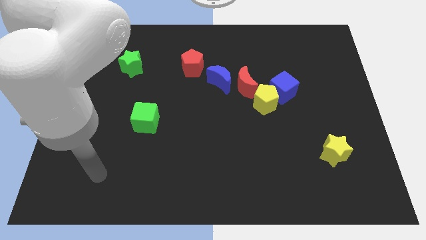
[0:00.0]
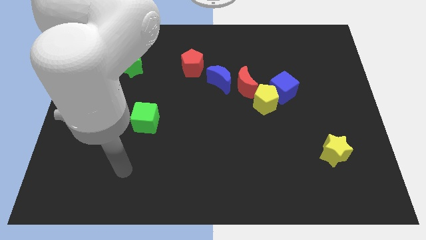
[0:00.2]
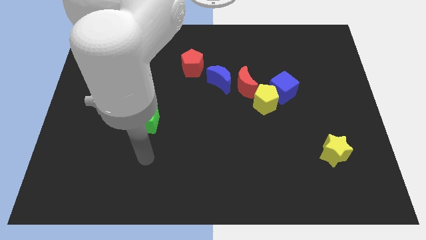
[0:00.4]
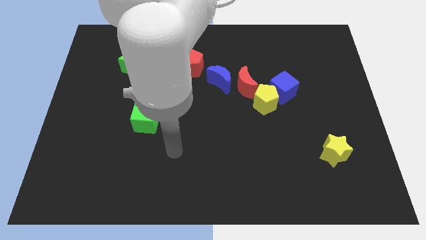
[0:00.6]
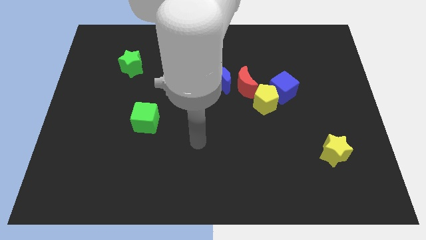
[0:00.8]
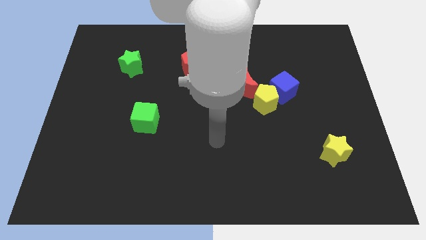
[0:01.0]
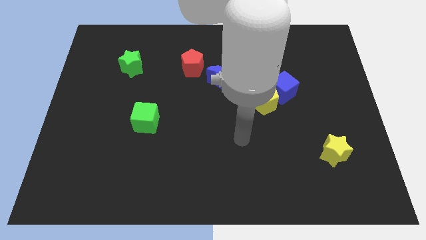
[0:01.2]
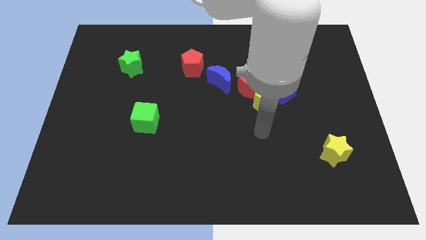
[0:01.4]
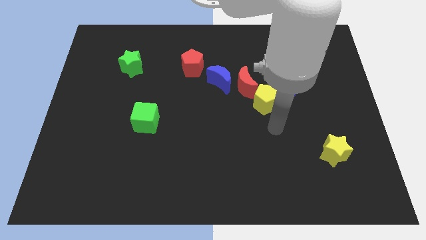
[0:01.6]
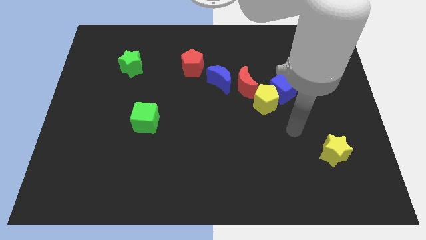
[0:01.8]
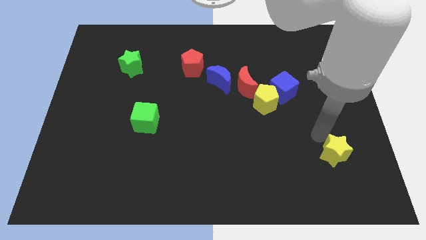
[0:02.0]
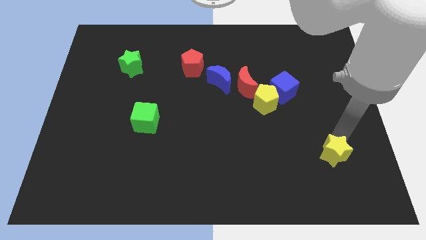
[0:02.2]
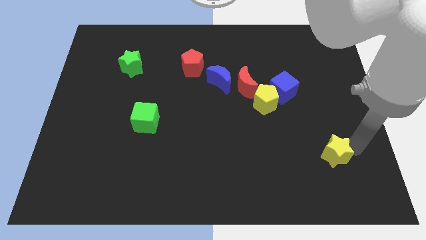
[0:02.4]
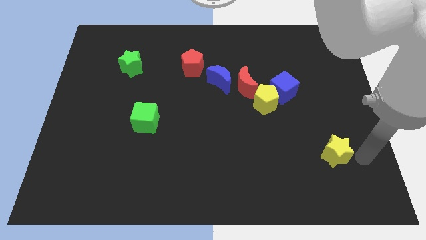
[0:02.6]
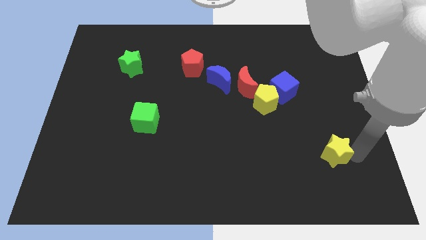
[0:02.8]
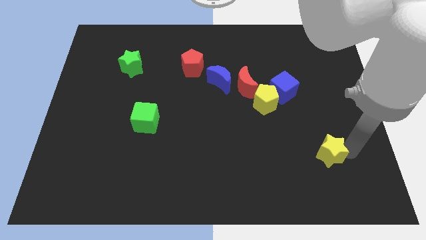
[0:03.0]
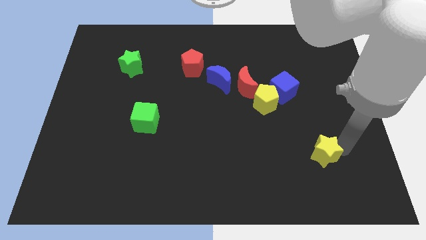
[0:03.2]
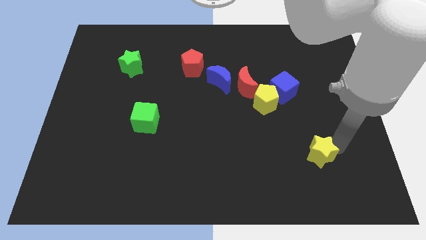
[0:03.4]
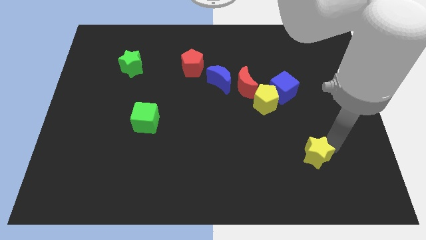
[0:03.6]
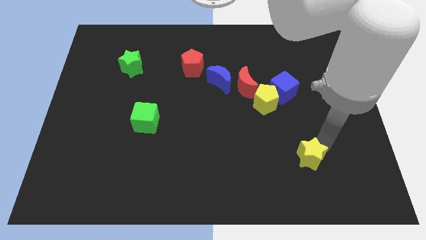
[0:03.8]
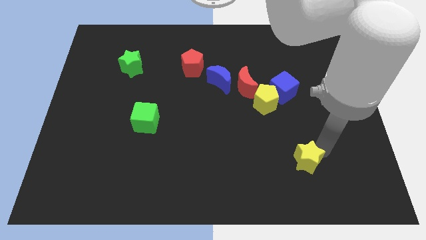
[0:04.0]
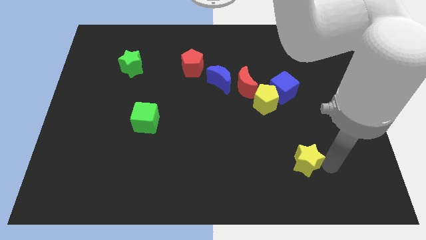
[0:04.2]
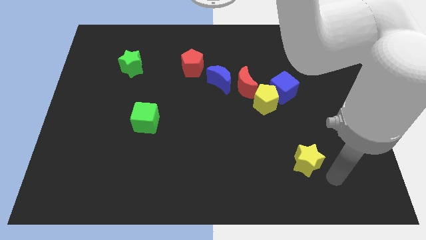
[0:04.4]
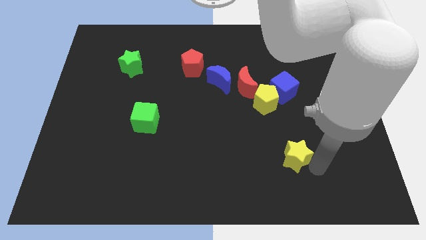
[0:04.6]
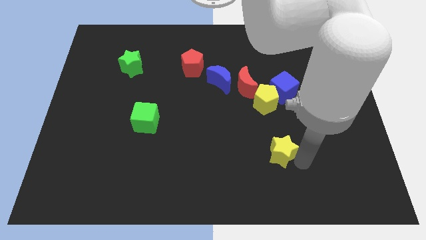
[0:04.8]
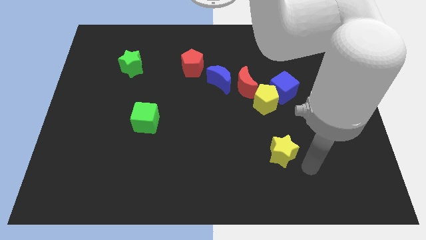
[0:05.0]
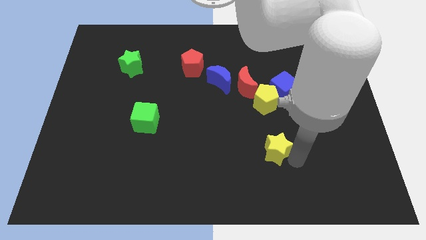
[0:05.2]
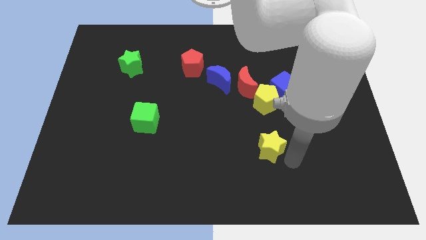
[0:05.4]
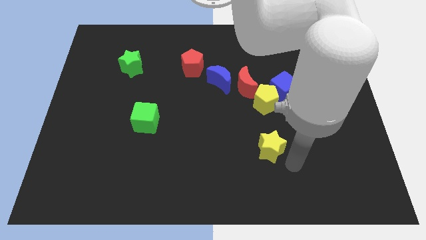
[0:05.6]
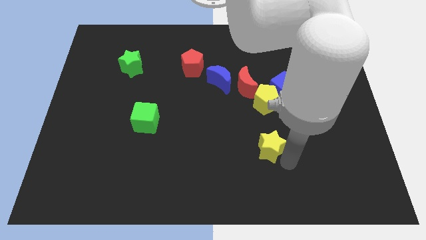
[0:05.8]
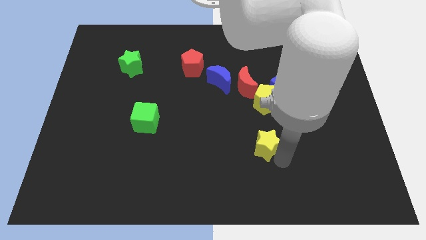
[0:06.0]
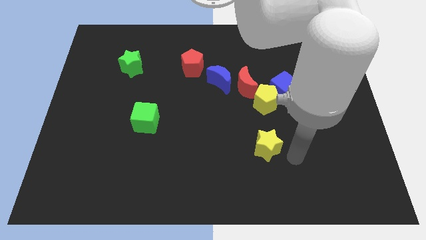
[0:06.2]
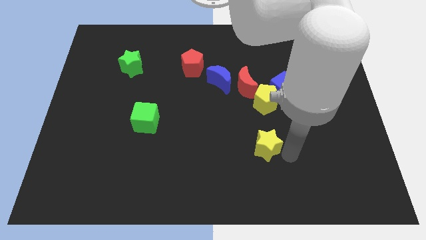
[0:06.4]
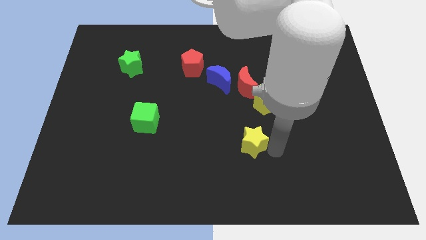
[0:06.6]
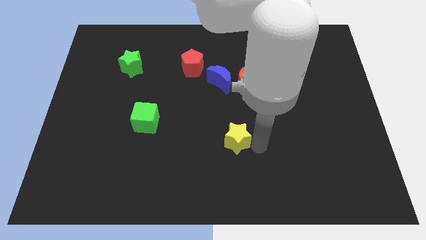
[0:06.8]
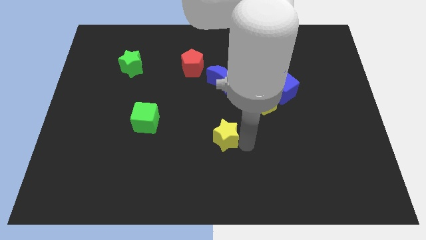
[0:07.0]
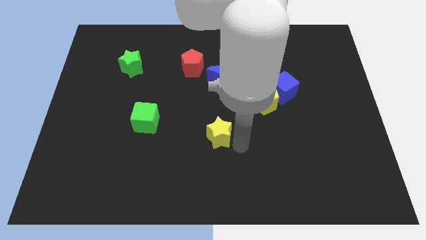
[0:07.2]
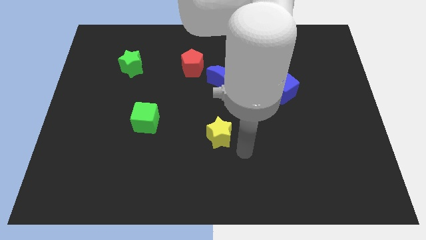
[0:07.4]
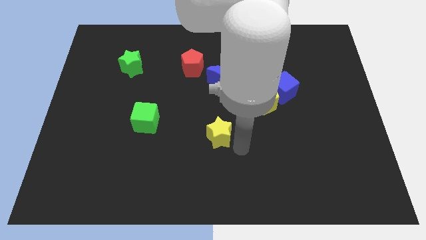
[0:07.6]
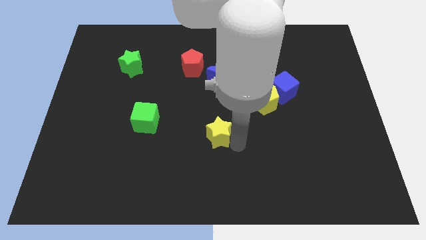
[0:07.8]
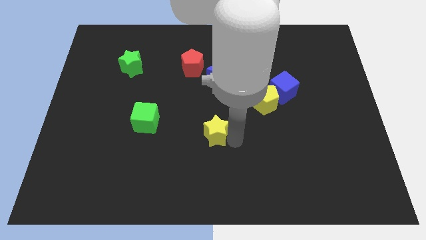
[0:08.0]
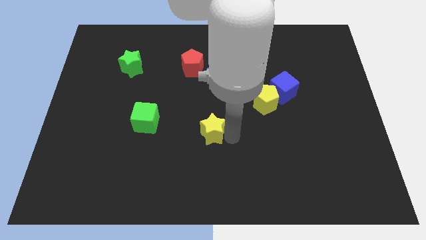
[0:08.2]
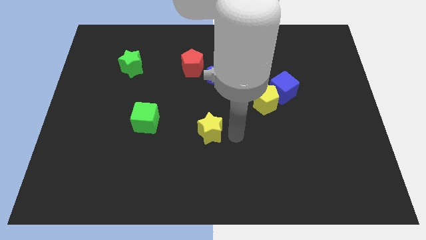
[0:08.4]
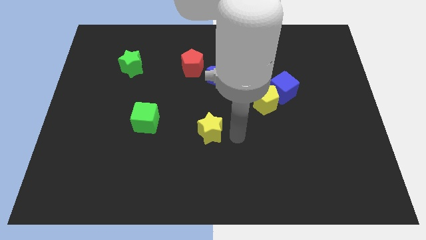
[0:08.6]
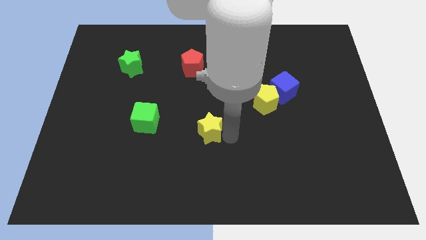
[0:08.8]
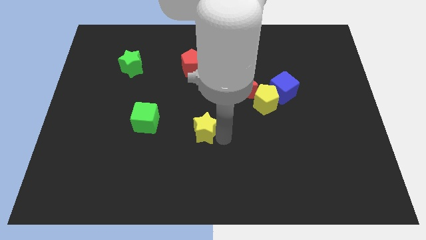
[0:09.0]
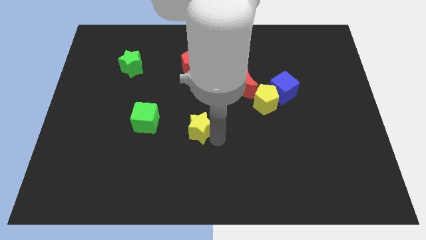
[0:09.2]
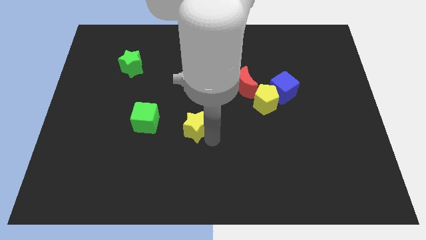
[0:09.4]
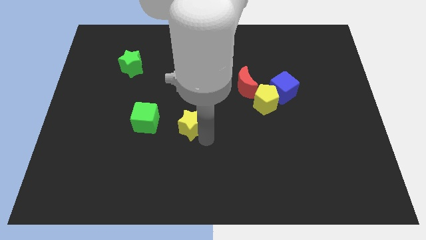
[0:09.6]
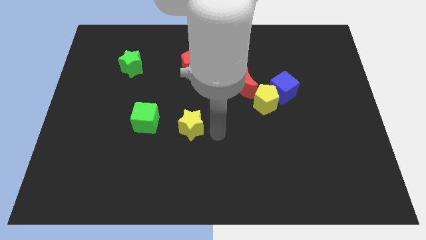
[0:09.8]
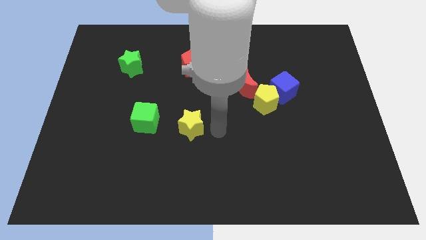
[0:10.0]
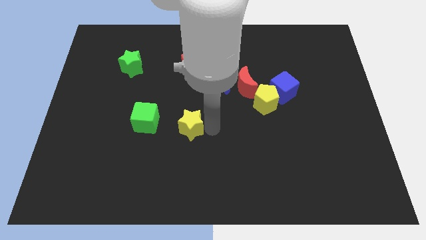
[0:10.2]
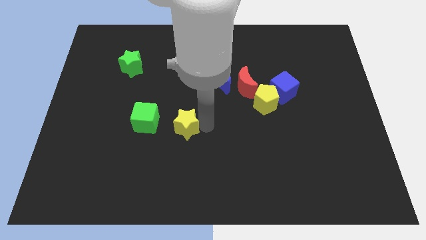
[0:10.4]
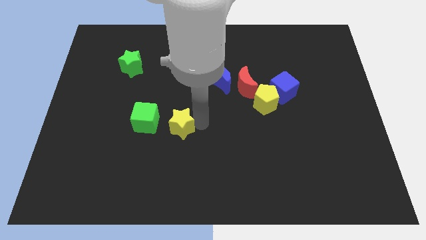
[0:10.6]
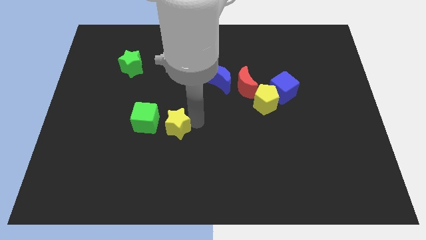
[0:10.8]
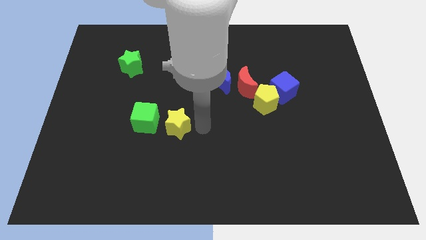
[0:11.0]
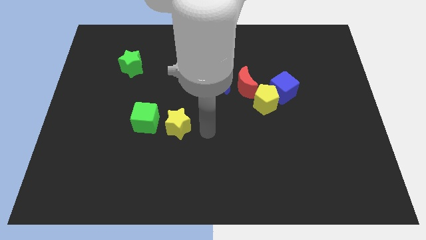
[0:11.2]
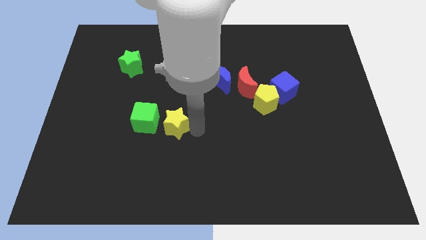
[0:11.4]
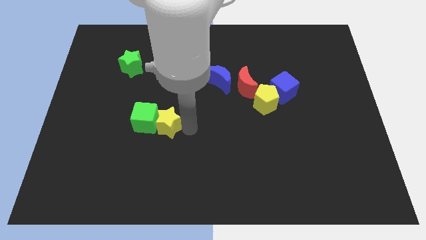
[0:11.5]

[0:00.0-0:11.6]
put the yellow star to the green cube

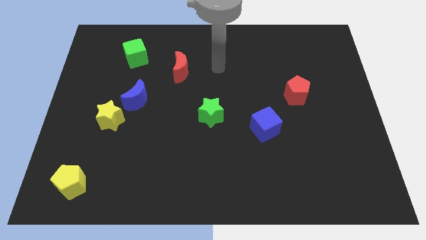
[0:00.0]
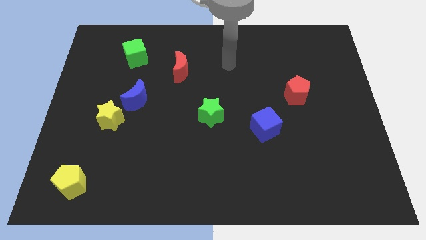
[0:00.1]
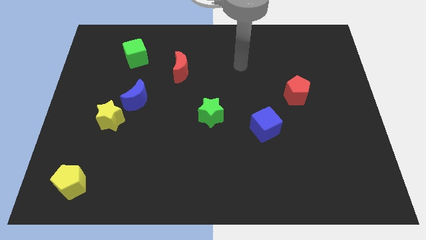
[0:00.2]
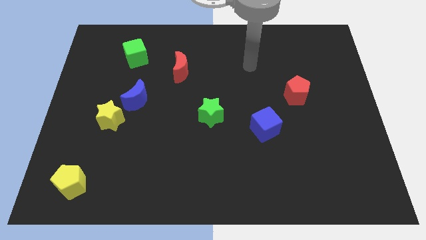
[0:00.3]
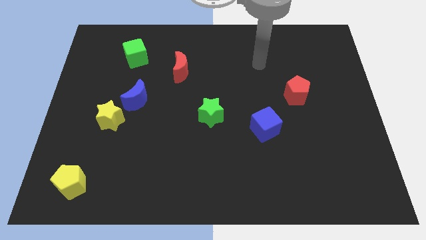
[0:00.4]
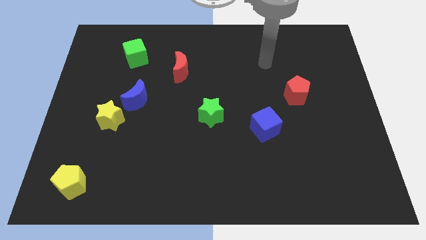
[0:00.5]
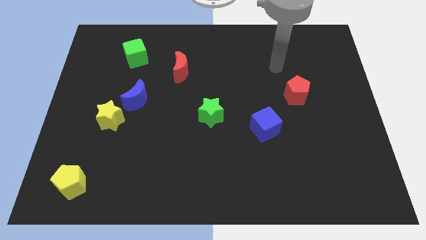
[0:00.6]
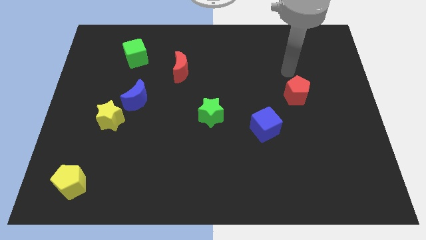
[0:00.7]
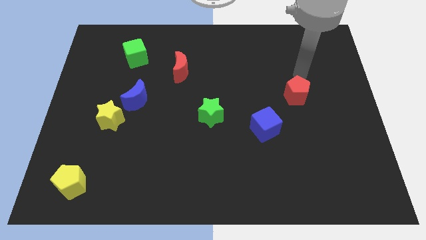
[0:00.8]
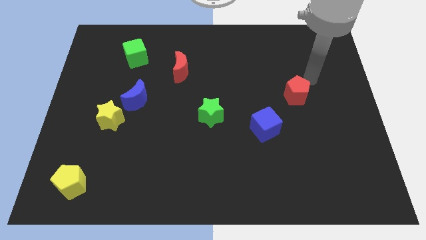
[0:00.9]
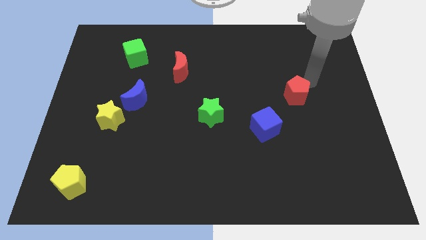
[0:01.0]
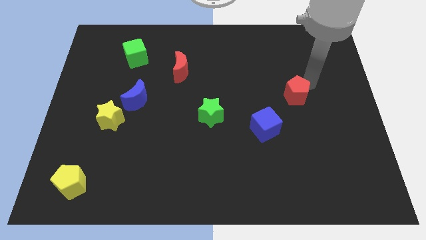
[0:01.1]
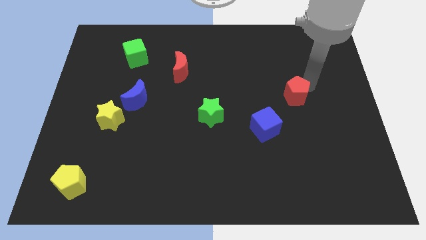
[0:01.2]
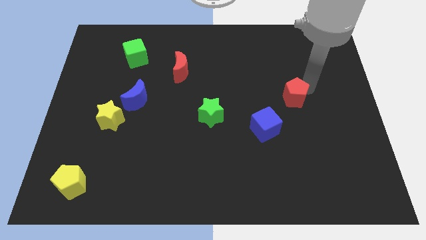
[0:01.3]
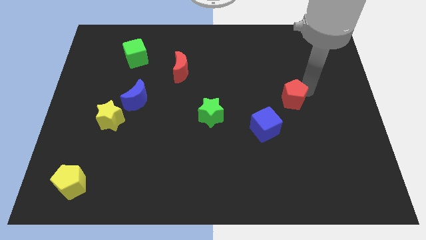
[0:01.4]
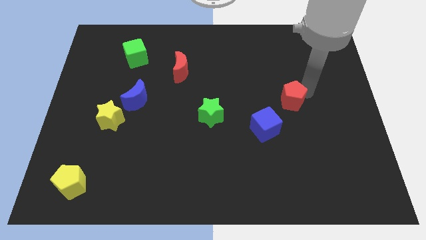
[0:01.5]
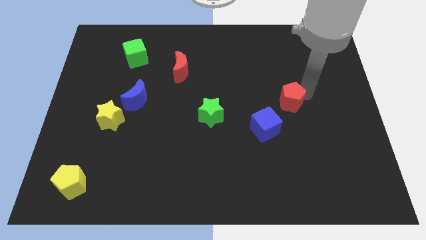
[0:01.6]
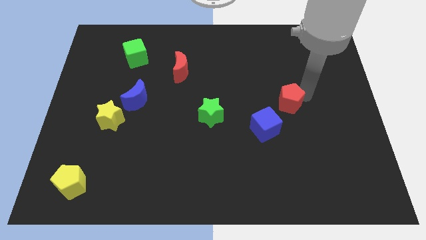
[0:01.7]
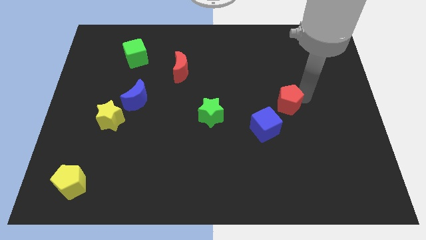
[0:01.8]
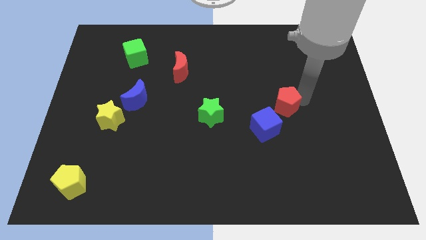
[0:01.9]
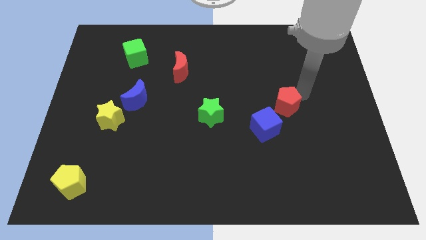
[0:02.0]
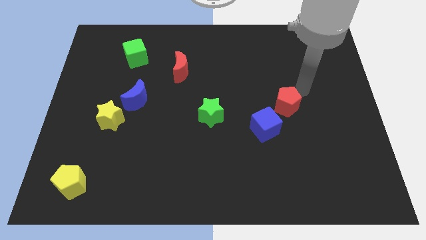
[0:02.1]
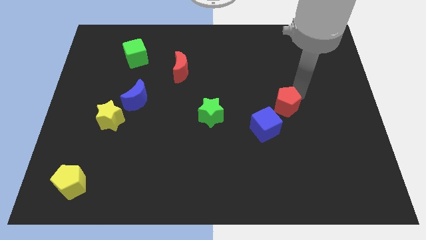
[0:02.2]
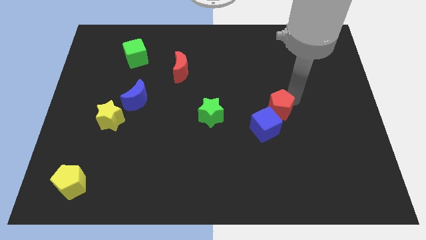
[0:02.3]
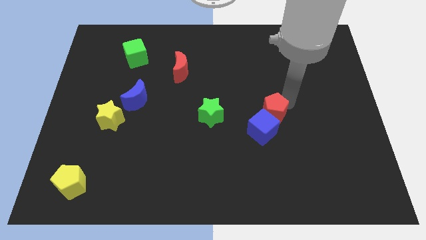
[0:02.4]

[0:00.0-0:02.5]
move the red pentagon close to the blue cube
